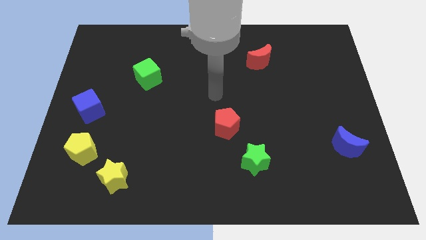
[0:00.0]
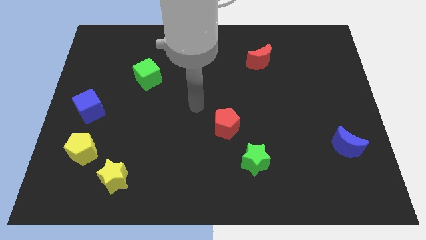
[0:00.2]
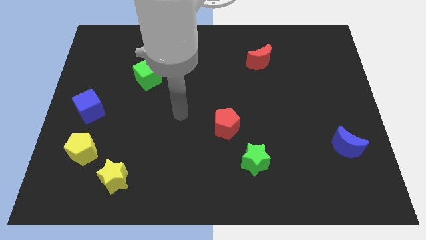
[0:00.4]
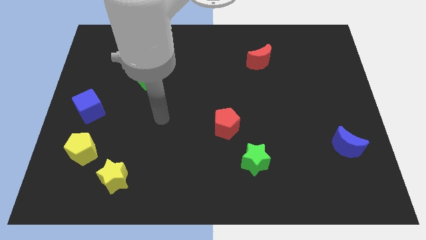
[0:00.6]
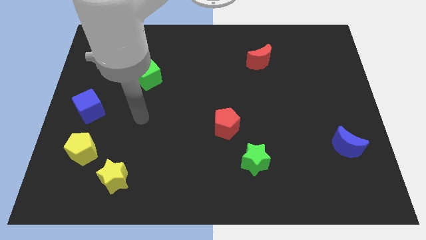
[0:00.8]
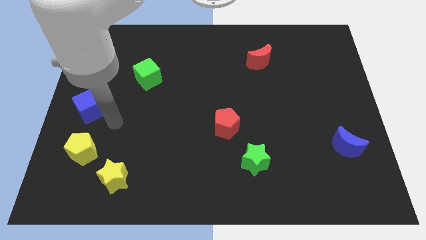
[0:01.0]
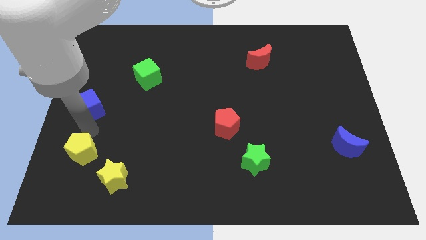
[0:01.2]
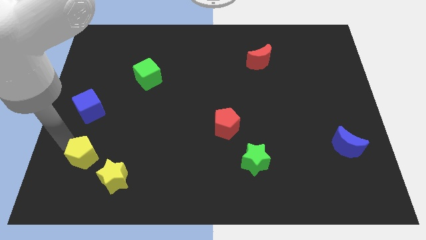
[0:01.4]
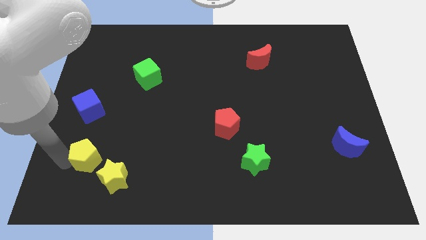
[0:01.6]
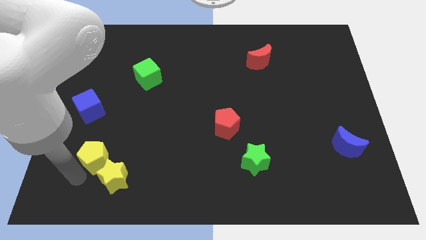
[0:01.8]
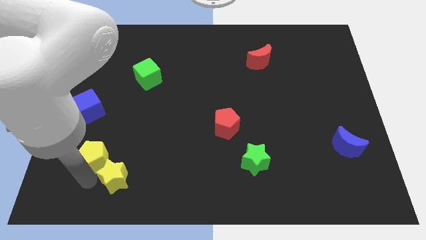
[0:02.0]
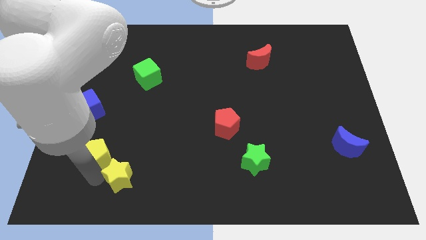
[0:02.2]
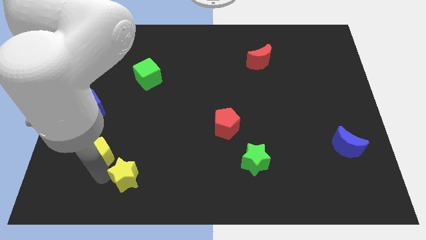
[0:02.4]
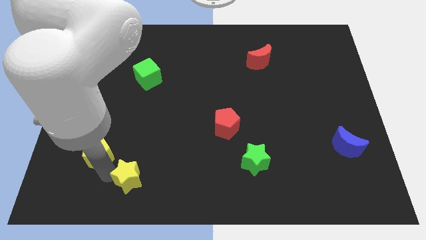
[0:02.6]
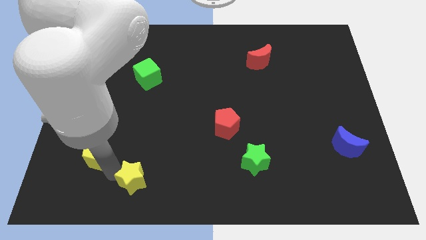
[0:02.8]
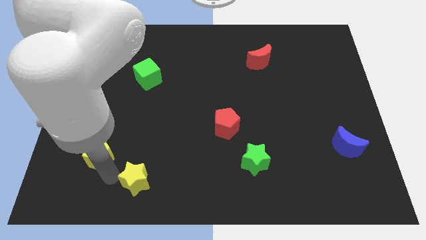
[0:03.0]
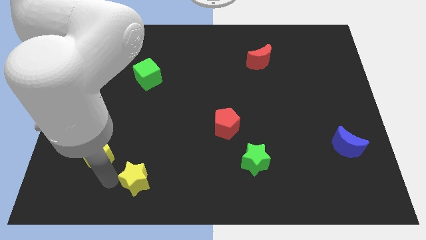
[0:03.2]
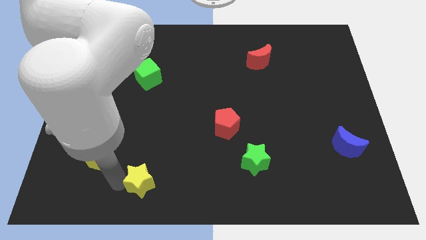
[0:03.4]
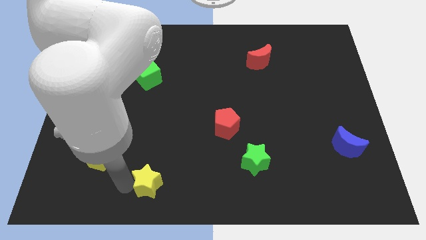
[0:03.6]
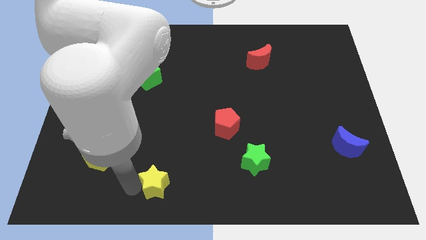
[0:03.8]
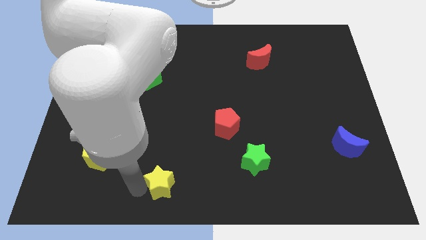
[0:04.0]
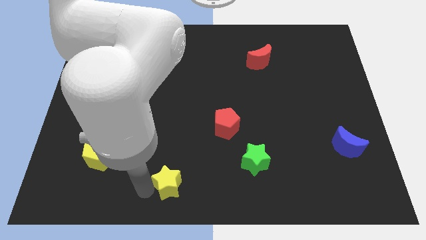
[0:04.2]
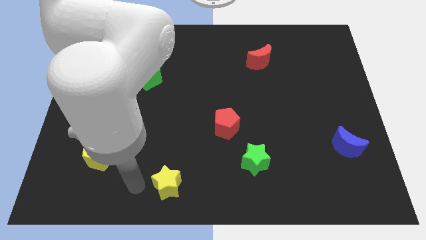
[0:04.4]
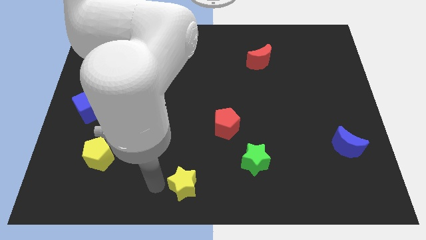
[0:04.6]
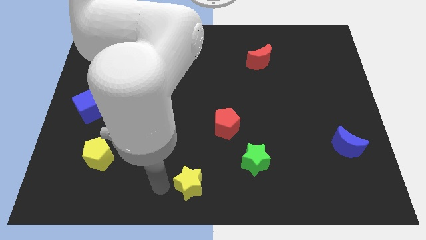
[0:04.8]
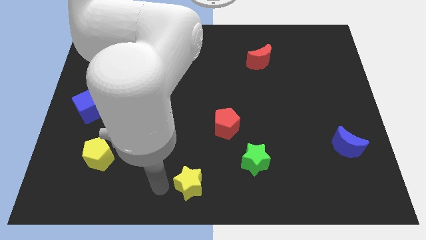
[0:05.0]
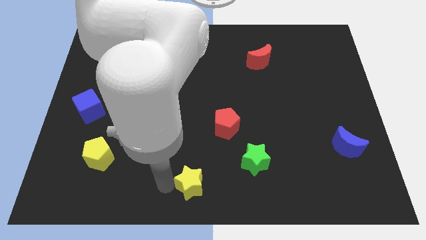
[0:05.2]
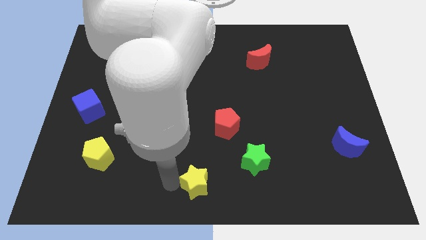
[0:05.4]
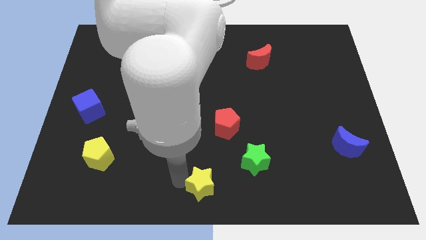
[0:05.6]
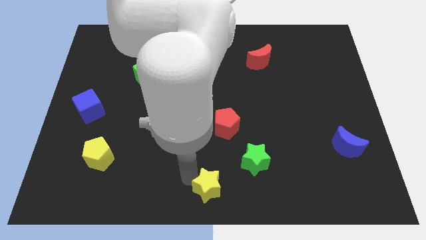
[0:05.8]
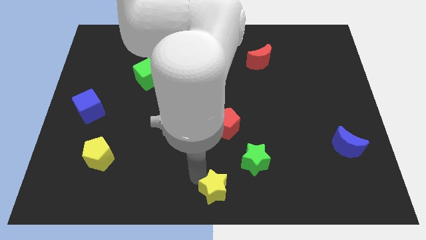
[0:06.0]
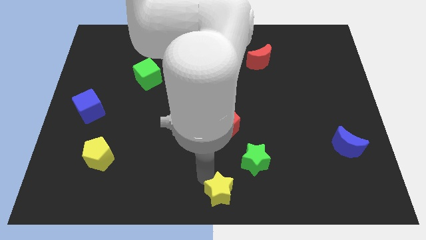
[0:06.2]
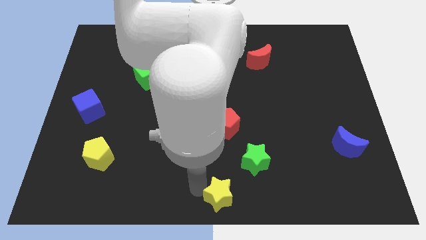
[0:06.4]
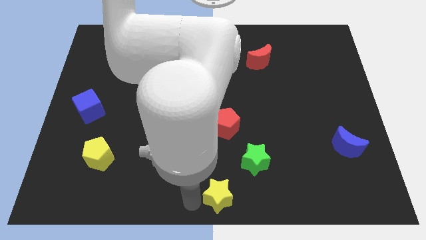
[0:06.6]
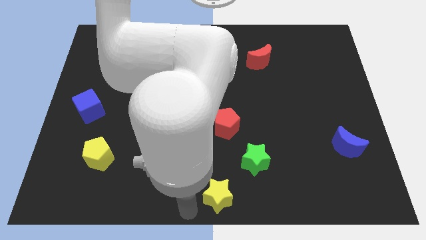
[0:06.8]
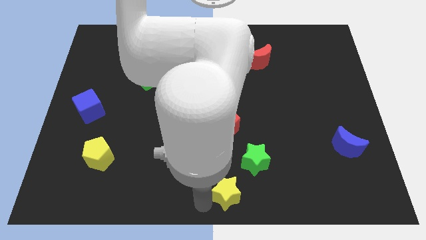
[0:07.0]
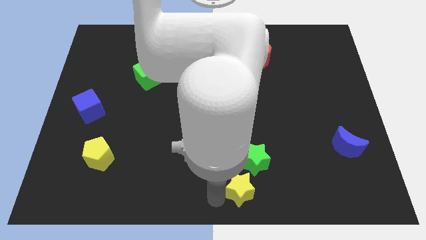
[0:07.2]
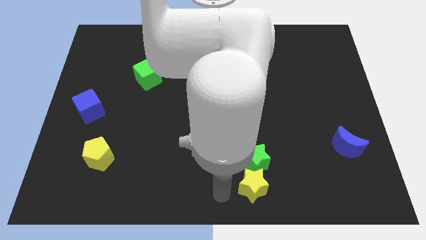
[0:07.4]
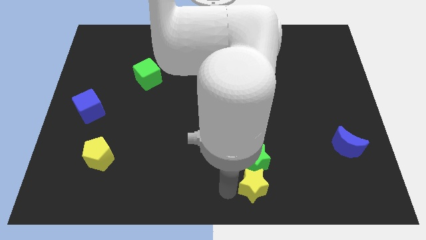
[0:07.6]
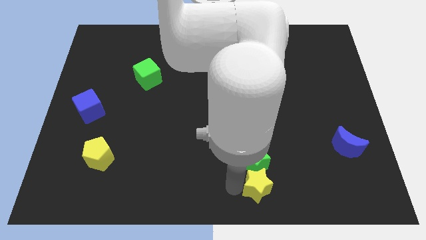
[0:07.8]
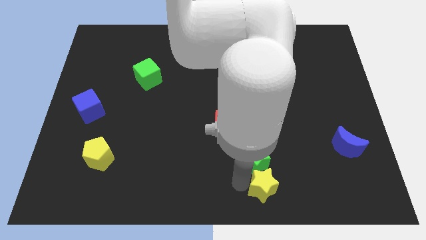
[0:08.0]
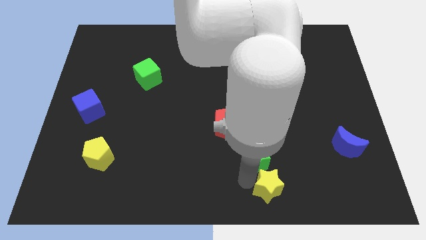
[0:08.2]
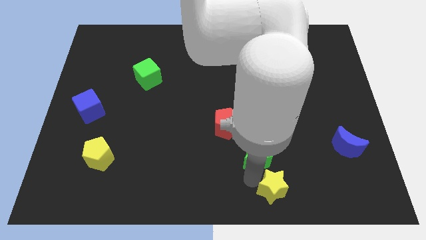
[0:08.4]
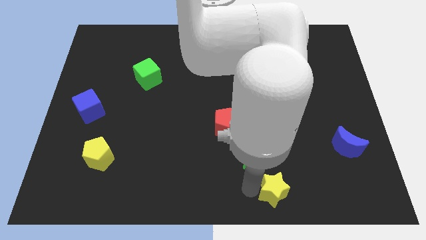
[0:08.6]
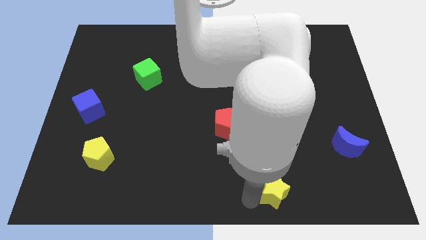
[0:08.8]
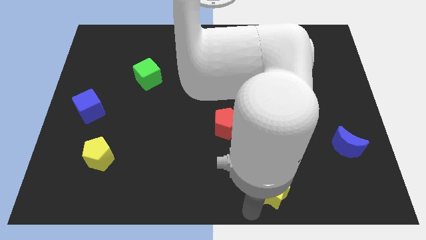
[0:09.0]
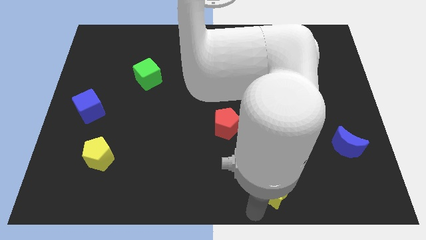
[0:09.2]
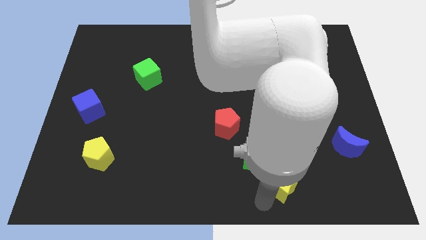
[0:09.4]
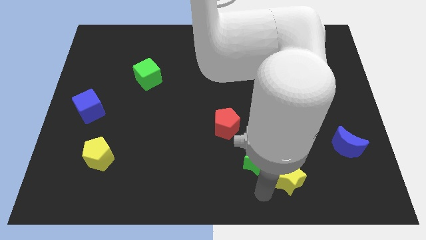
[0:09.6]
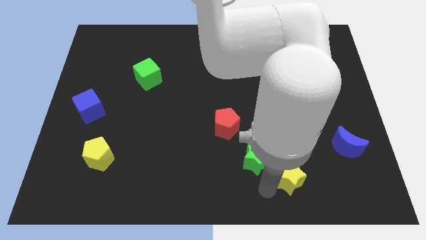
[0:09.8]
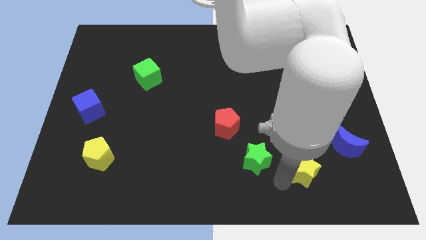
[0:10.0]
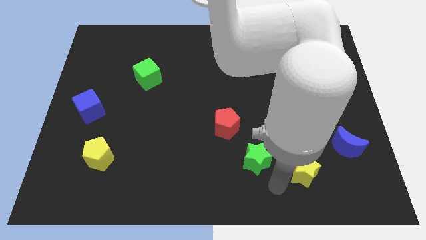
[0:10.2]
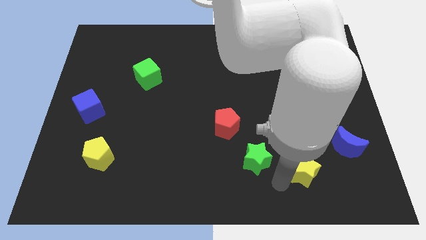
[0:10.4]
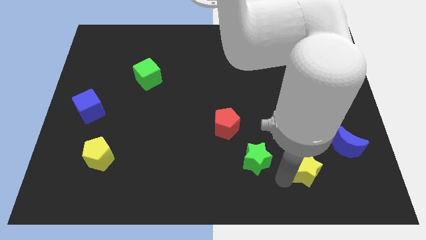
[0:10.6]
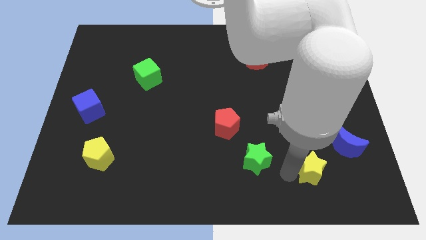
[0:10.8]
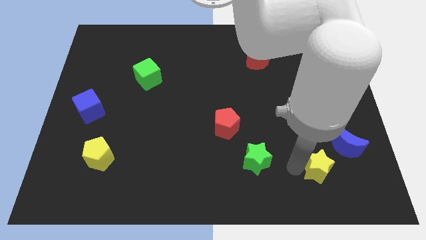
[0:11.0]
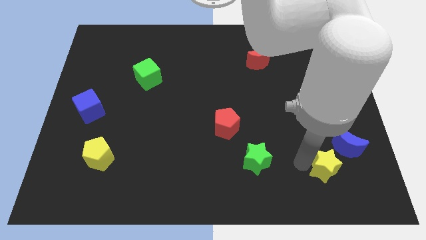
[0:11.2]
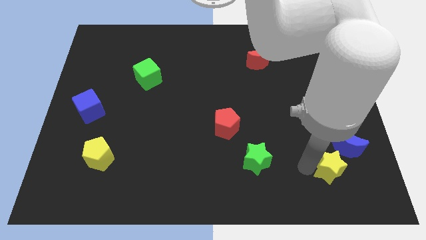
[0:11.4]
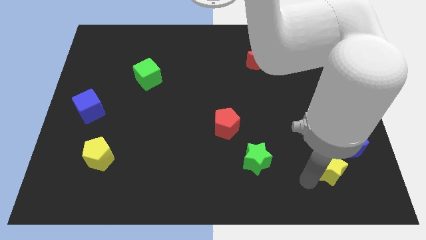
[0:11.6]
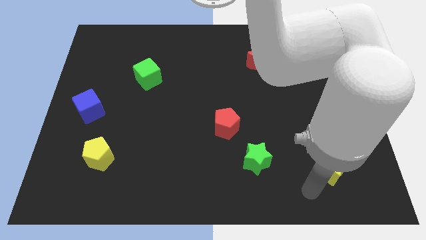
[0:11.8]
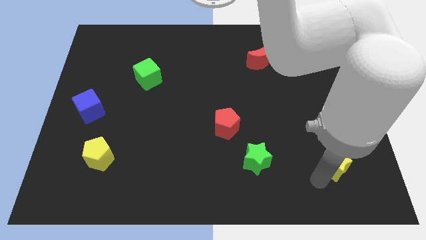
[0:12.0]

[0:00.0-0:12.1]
move the yellow star next to the blue moon

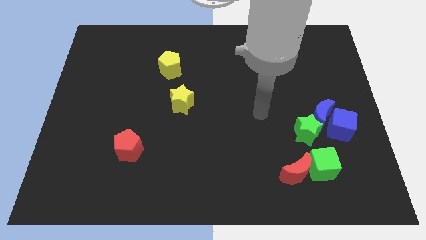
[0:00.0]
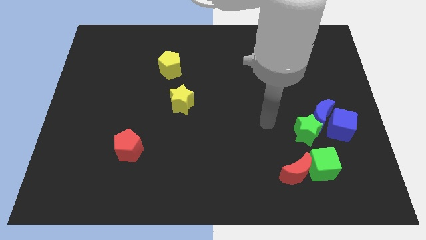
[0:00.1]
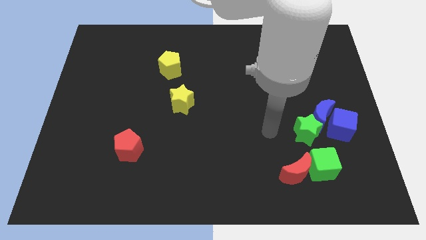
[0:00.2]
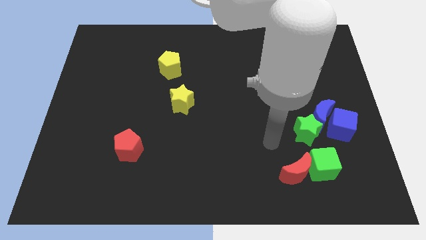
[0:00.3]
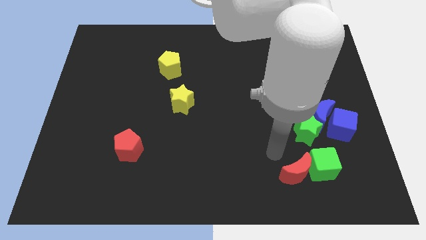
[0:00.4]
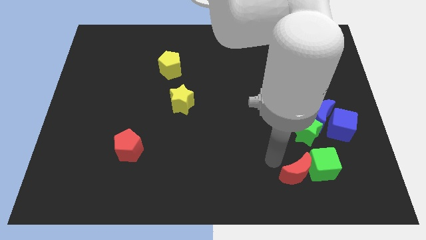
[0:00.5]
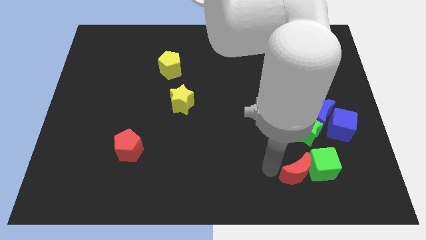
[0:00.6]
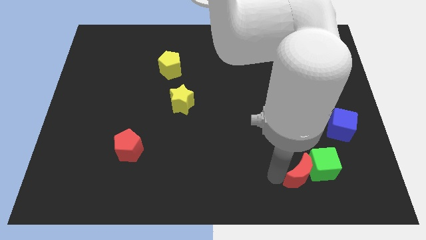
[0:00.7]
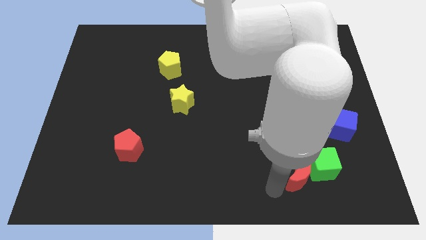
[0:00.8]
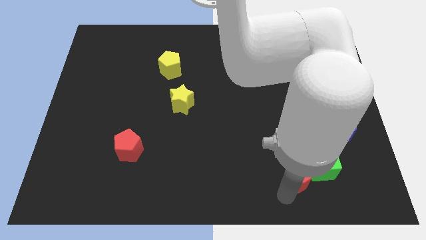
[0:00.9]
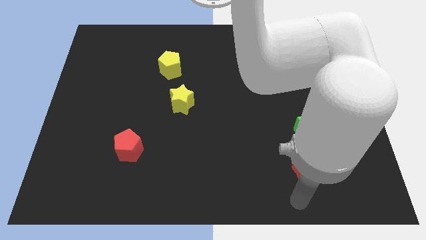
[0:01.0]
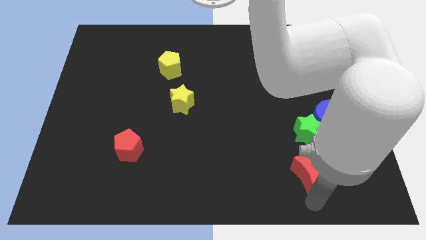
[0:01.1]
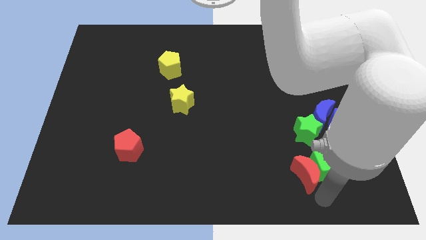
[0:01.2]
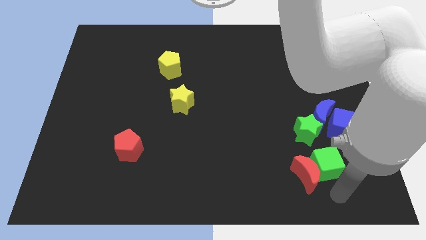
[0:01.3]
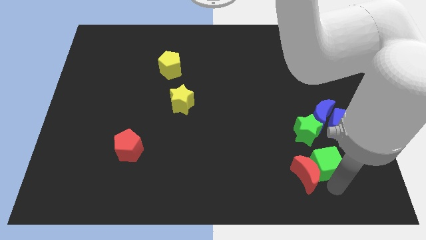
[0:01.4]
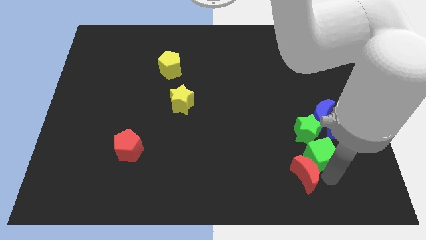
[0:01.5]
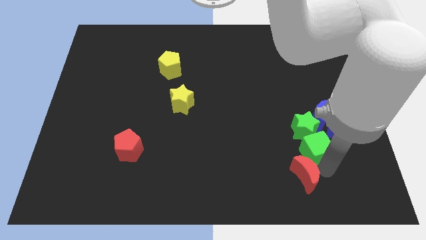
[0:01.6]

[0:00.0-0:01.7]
move the green cube close to the green star
